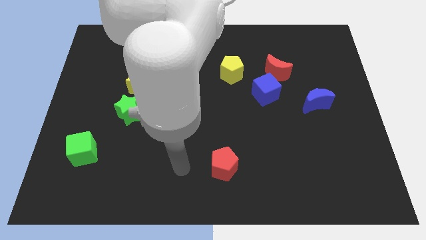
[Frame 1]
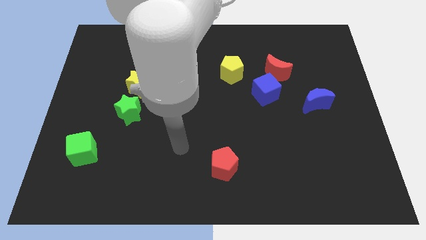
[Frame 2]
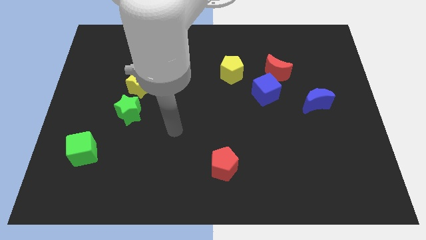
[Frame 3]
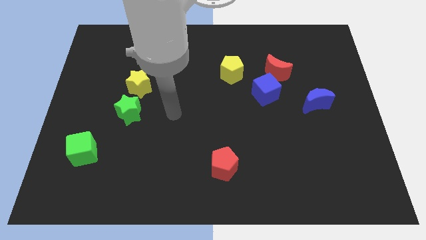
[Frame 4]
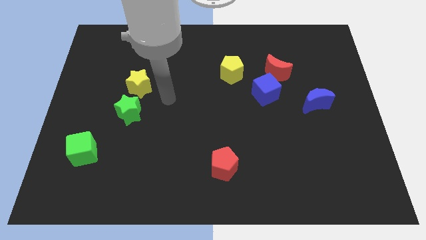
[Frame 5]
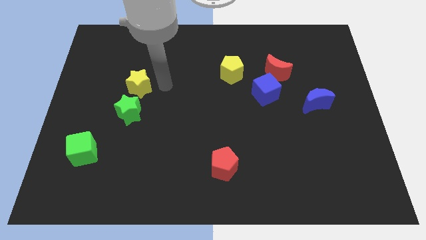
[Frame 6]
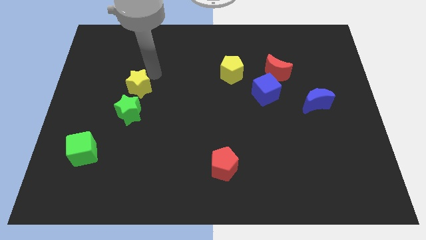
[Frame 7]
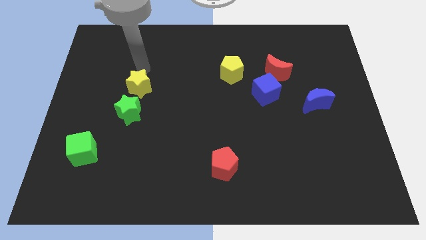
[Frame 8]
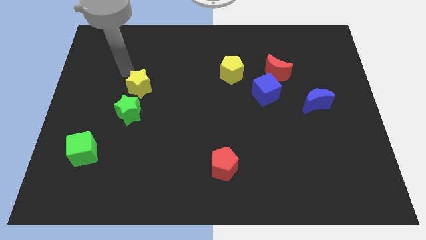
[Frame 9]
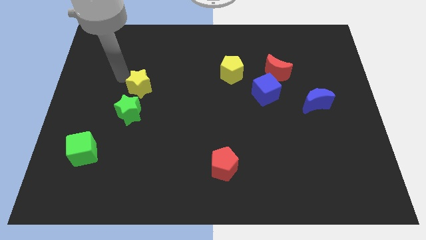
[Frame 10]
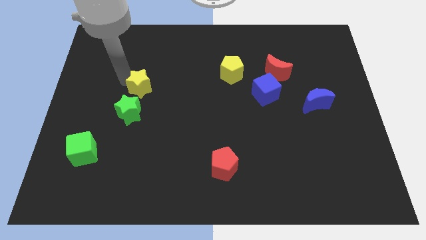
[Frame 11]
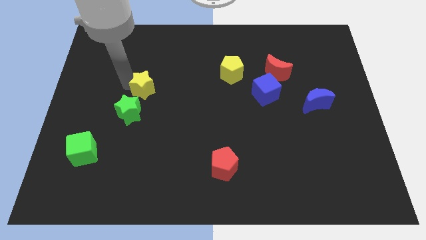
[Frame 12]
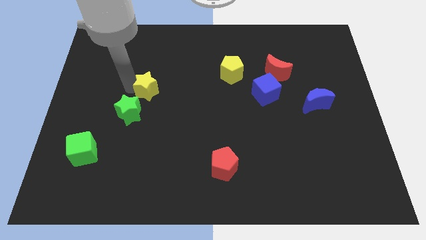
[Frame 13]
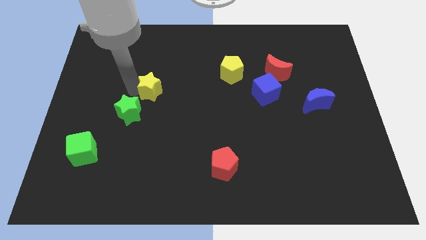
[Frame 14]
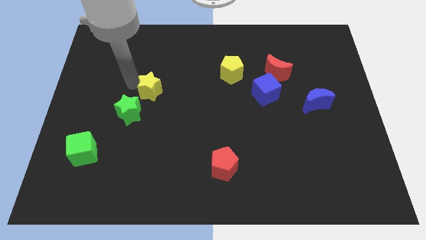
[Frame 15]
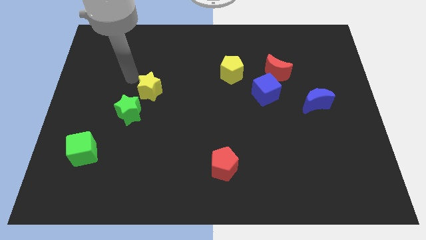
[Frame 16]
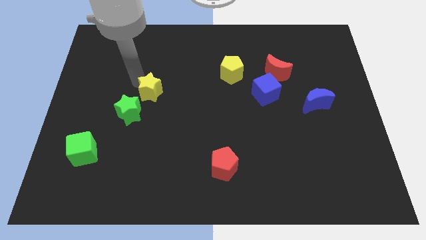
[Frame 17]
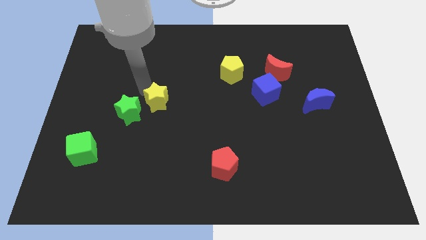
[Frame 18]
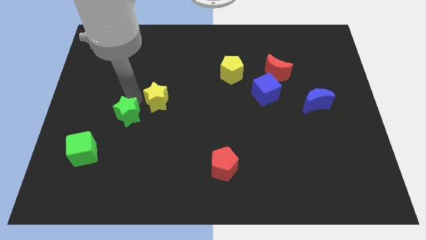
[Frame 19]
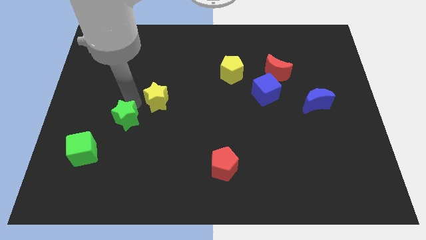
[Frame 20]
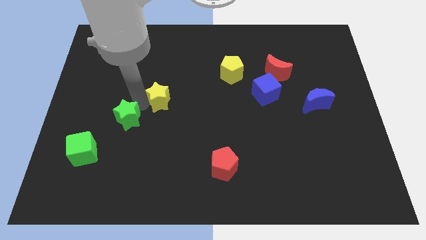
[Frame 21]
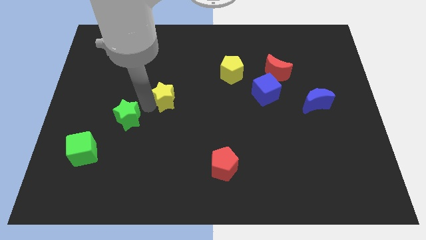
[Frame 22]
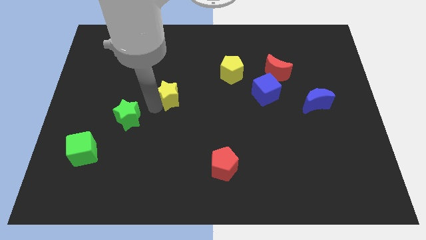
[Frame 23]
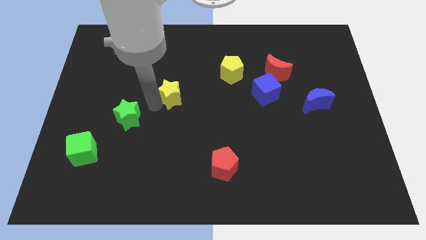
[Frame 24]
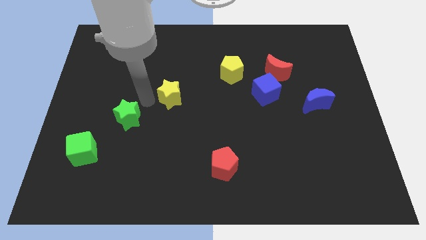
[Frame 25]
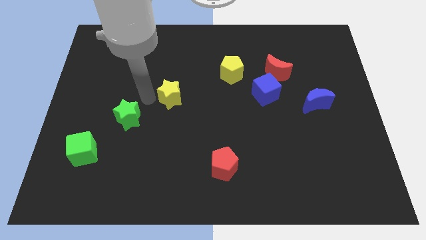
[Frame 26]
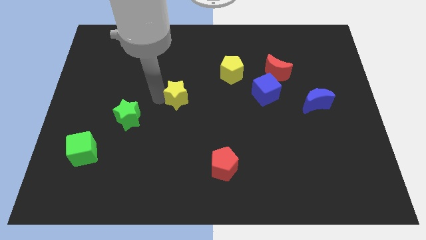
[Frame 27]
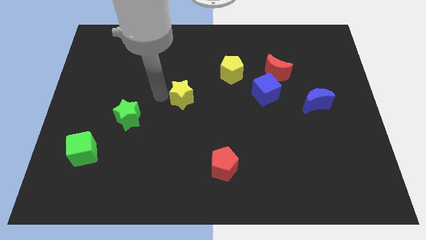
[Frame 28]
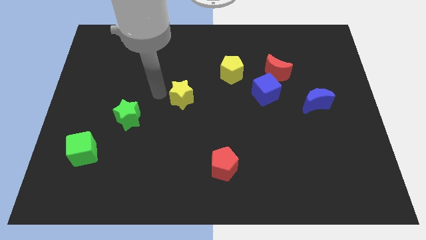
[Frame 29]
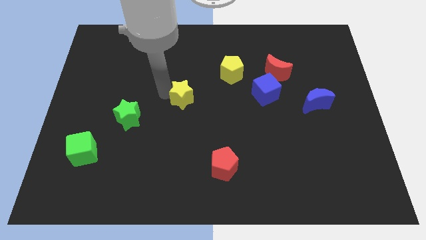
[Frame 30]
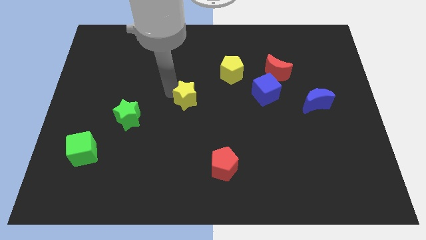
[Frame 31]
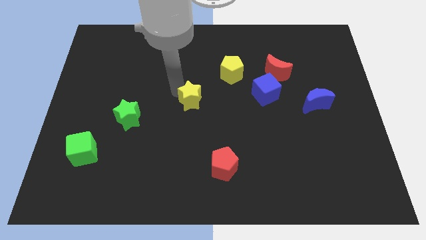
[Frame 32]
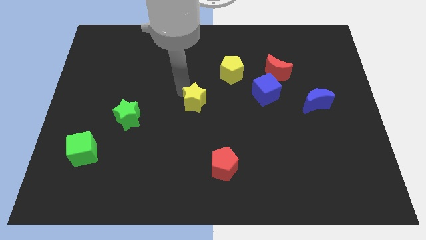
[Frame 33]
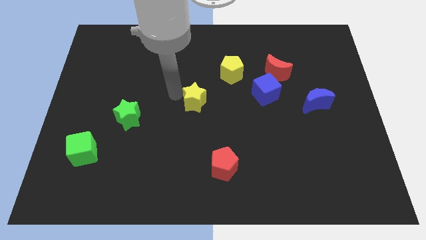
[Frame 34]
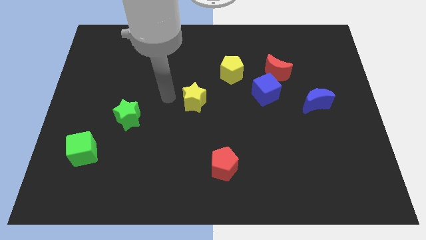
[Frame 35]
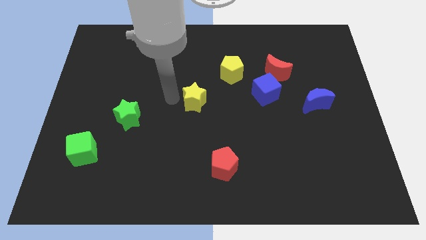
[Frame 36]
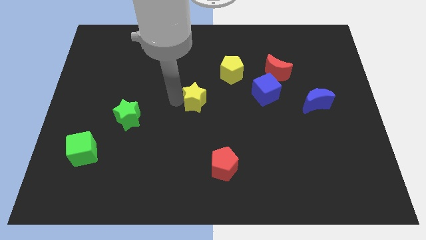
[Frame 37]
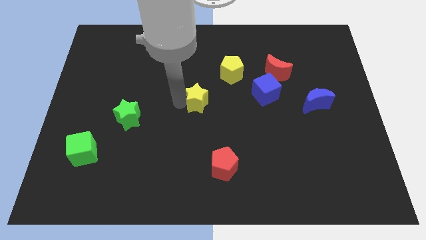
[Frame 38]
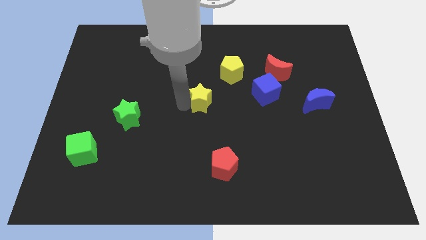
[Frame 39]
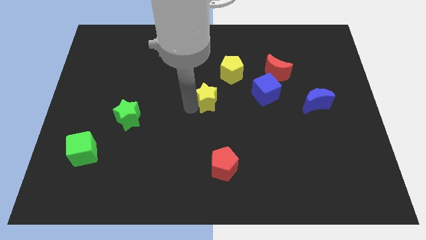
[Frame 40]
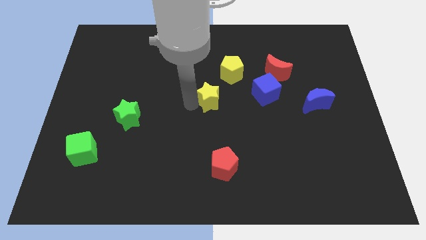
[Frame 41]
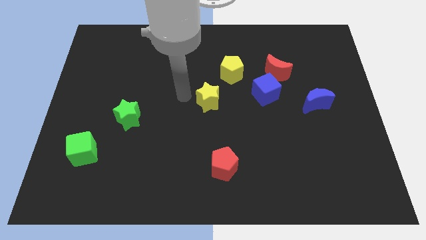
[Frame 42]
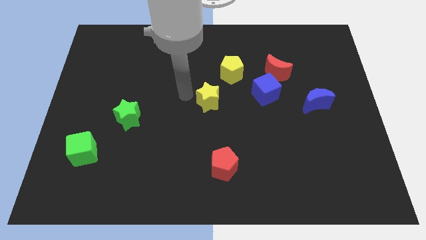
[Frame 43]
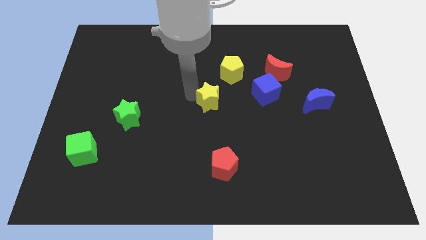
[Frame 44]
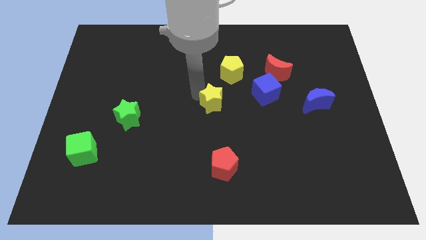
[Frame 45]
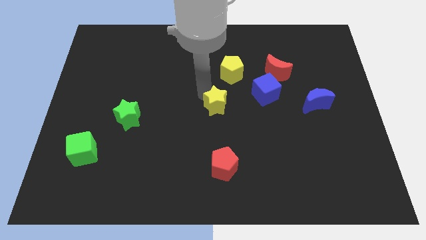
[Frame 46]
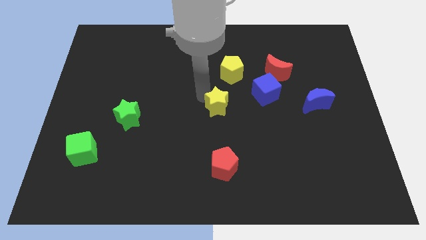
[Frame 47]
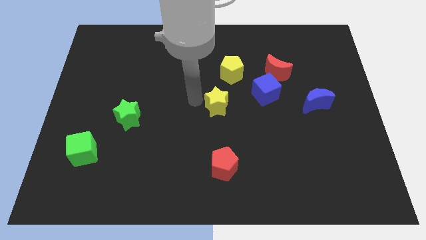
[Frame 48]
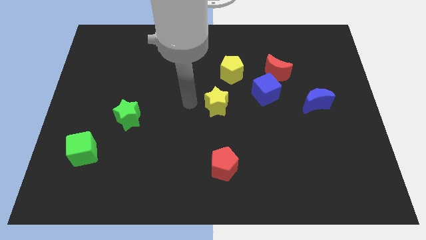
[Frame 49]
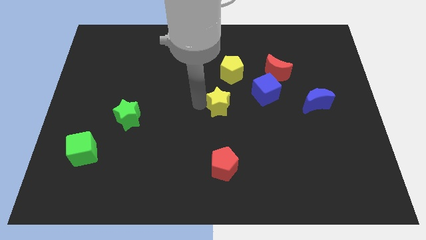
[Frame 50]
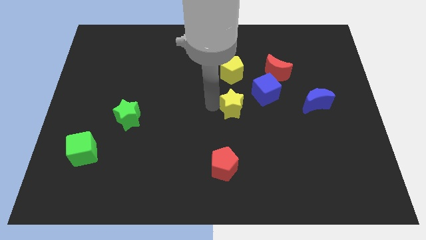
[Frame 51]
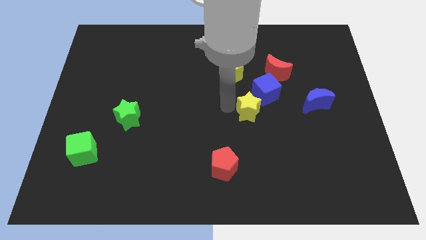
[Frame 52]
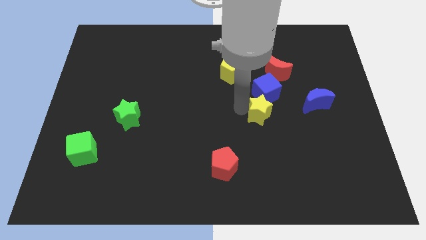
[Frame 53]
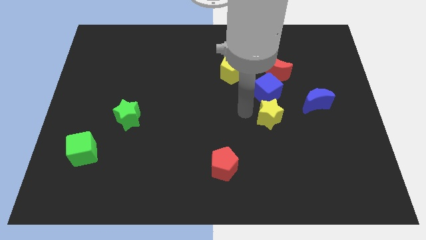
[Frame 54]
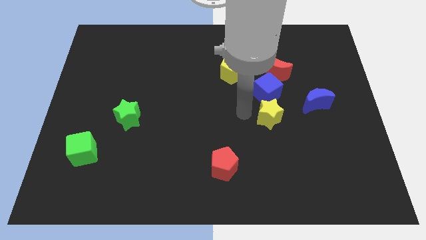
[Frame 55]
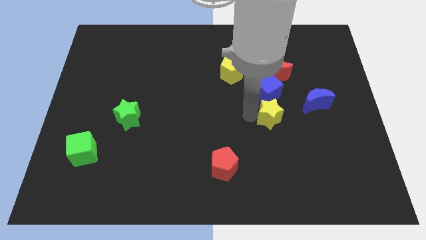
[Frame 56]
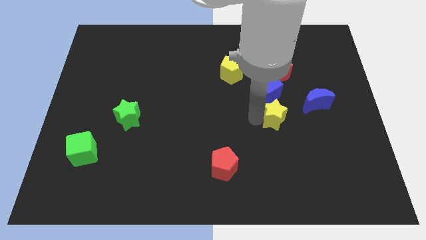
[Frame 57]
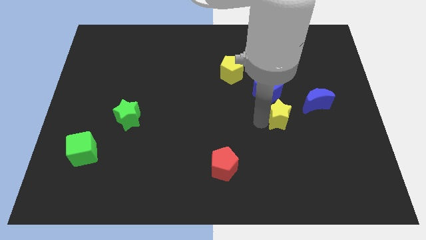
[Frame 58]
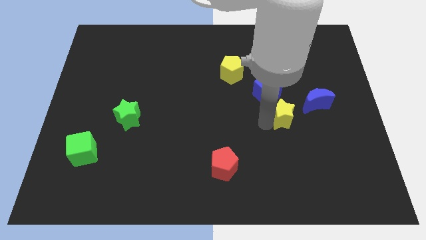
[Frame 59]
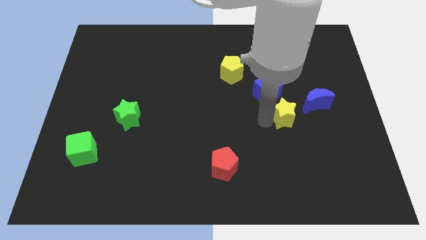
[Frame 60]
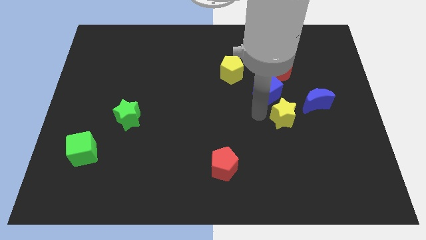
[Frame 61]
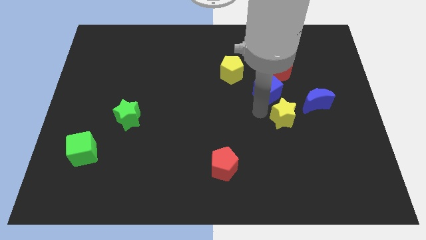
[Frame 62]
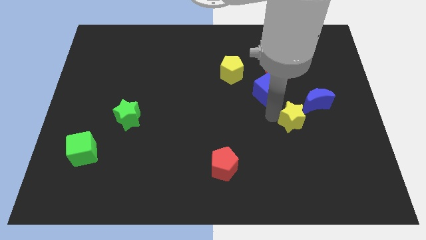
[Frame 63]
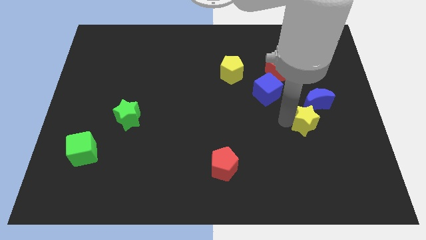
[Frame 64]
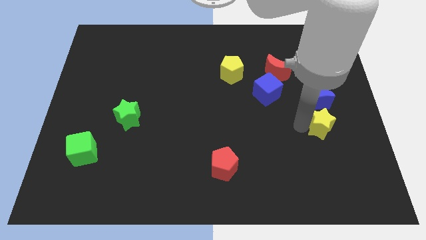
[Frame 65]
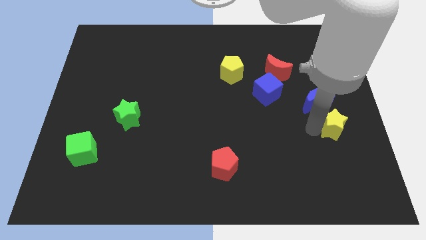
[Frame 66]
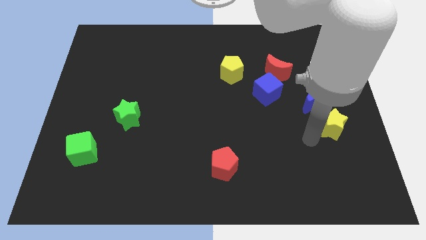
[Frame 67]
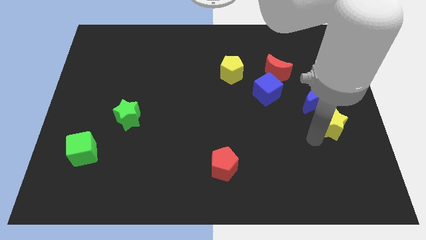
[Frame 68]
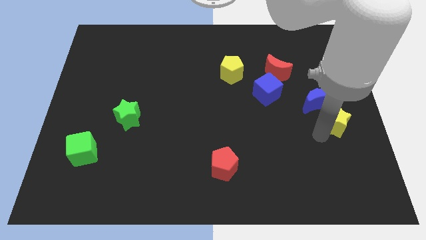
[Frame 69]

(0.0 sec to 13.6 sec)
put the yellow star to the right side of the board
